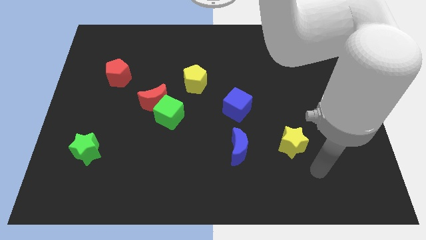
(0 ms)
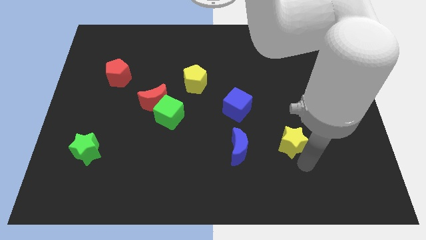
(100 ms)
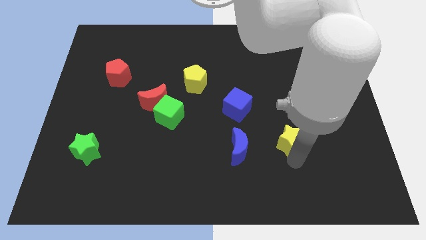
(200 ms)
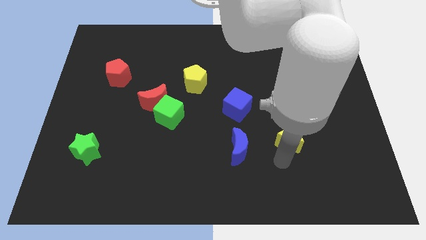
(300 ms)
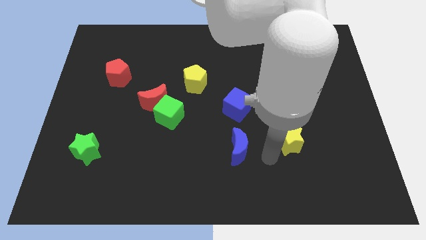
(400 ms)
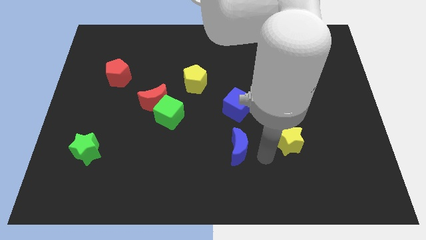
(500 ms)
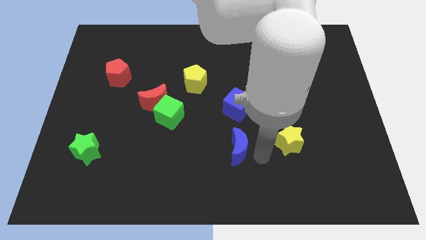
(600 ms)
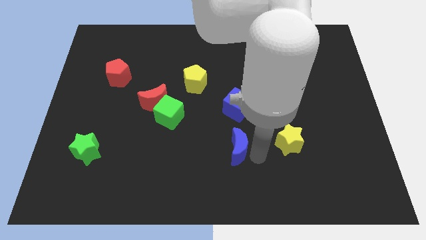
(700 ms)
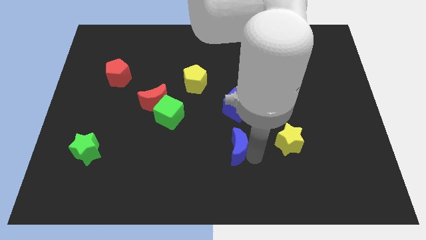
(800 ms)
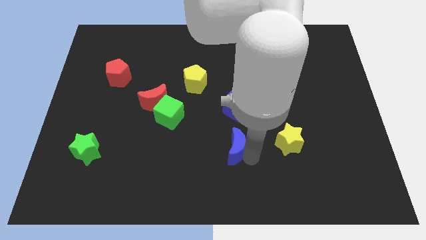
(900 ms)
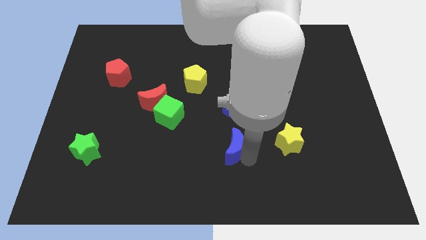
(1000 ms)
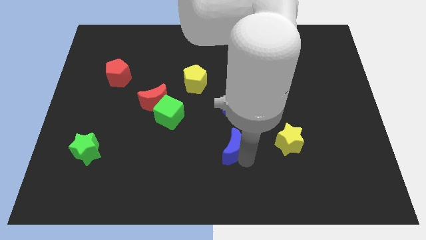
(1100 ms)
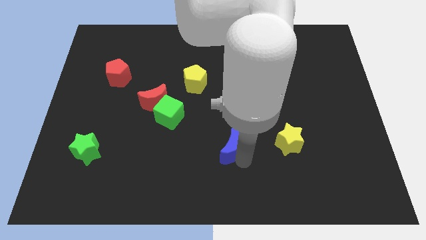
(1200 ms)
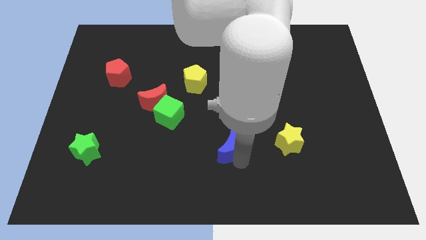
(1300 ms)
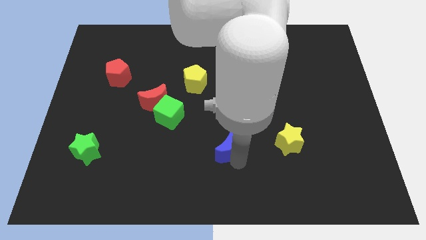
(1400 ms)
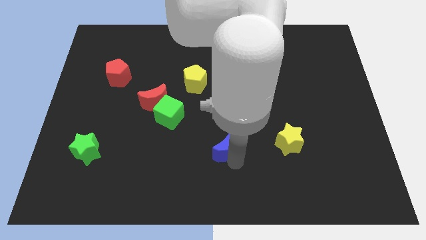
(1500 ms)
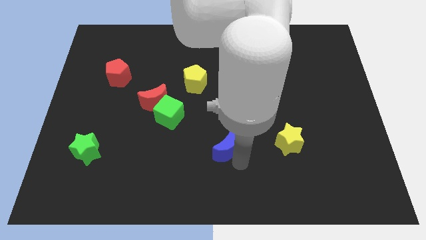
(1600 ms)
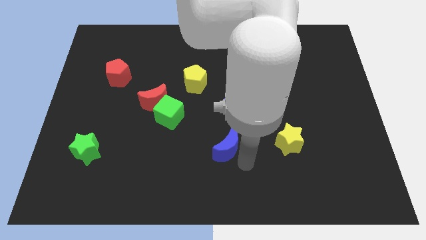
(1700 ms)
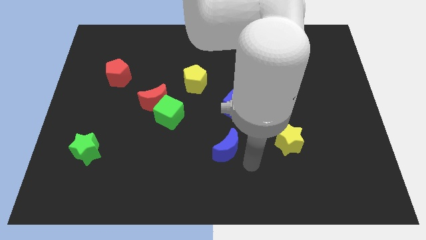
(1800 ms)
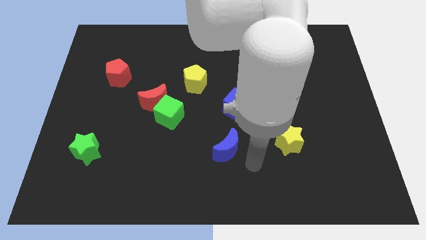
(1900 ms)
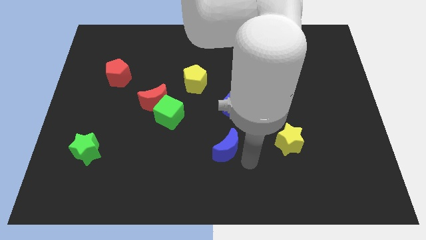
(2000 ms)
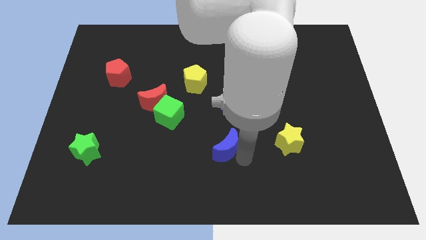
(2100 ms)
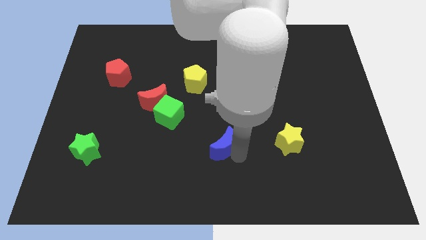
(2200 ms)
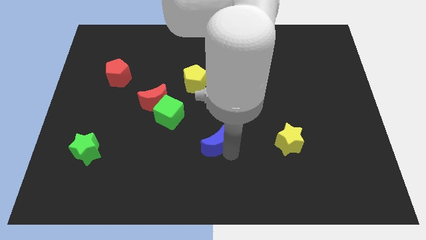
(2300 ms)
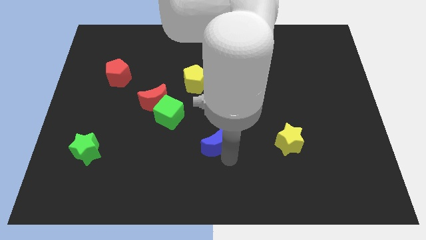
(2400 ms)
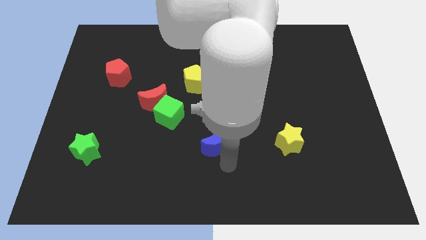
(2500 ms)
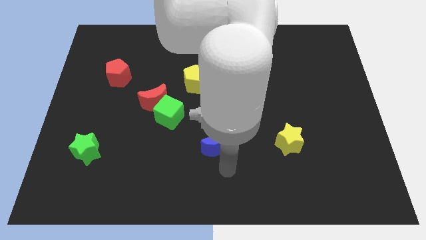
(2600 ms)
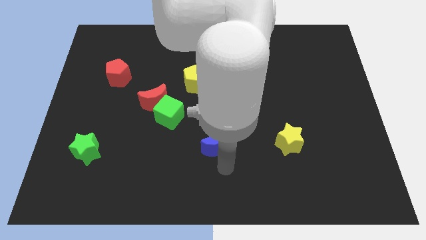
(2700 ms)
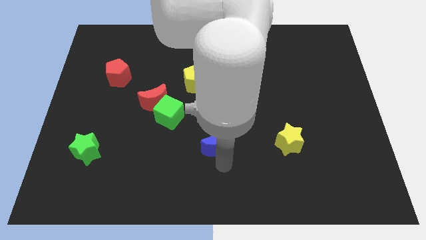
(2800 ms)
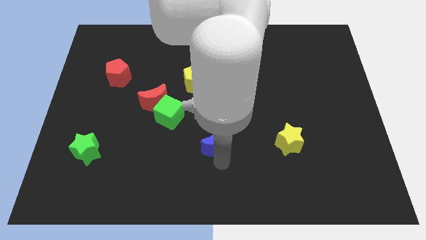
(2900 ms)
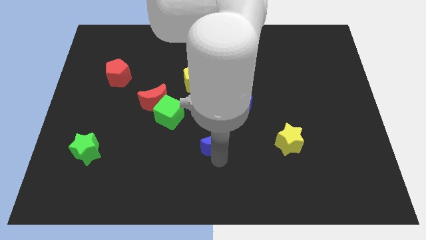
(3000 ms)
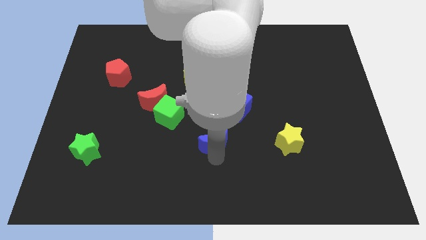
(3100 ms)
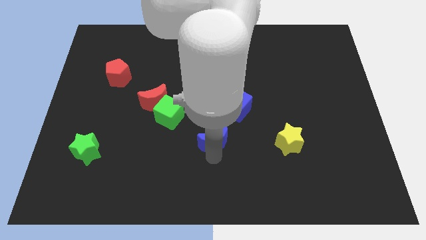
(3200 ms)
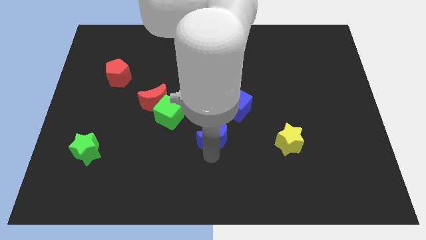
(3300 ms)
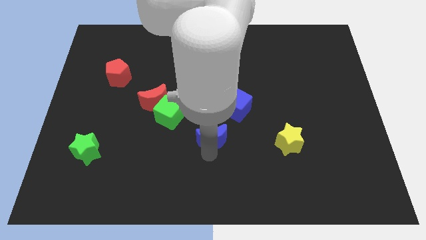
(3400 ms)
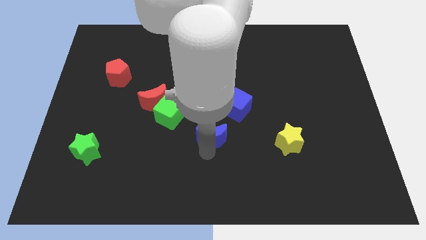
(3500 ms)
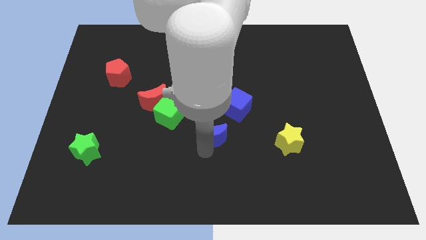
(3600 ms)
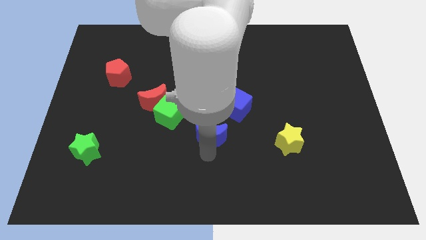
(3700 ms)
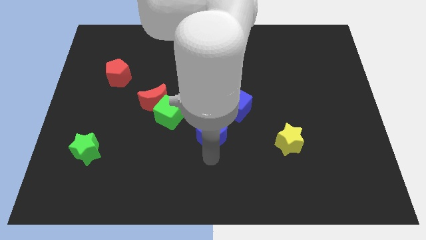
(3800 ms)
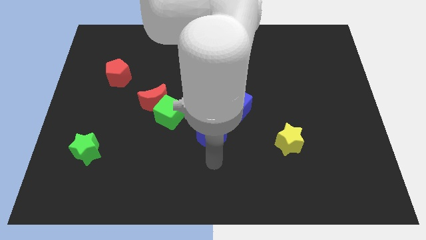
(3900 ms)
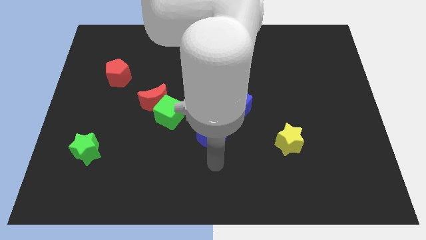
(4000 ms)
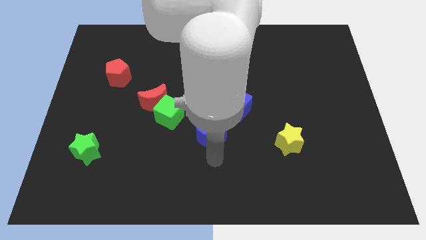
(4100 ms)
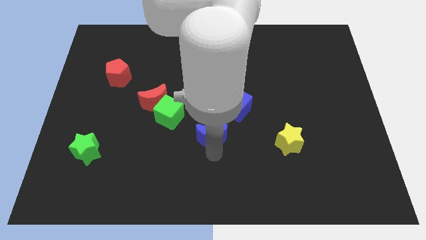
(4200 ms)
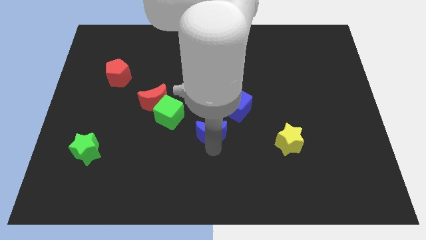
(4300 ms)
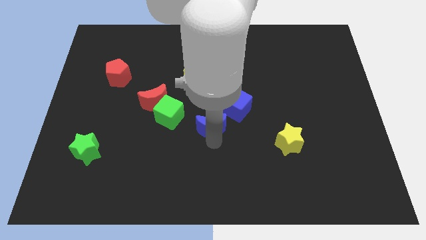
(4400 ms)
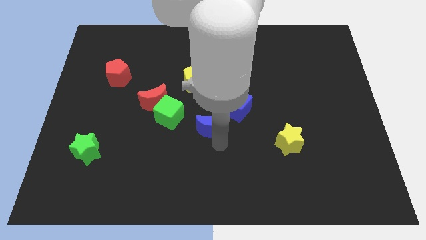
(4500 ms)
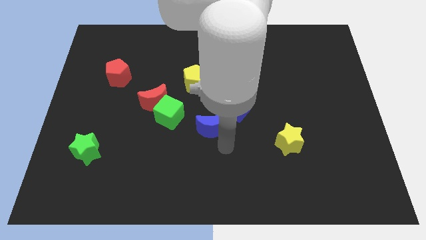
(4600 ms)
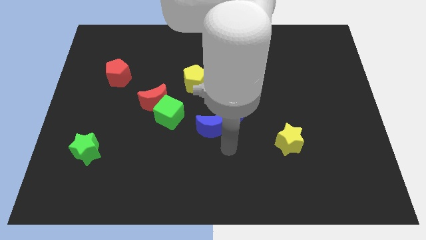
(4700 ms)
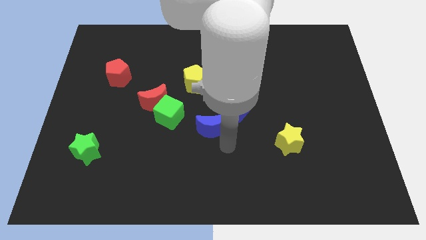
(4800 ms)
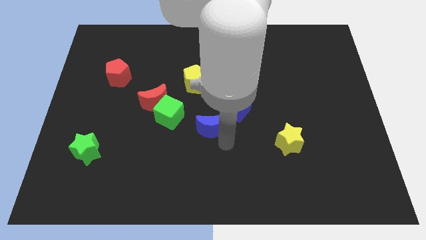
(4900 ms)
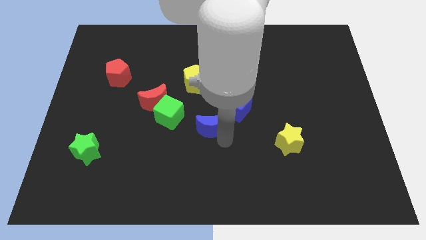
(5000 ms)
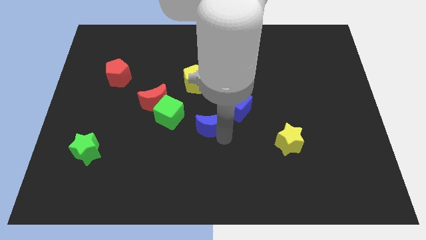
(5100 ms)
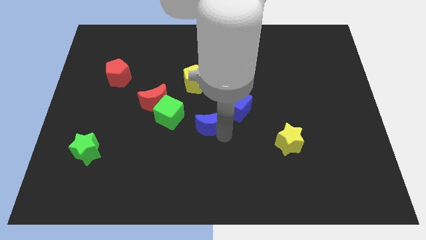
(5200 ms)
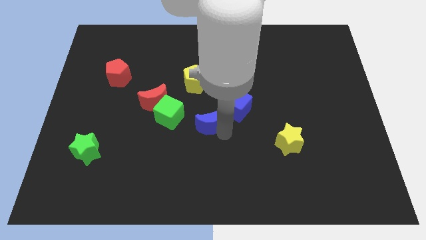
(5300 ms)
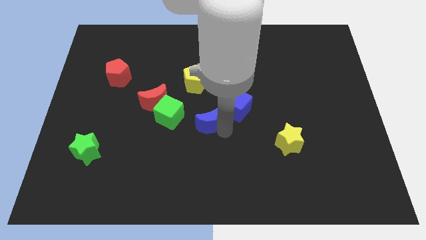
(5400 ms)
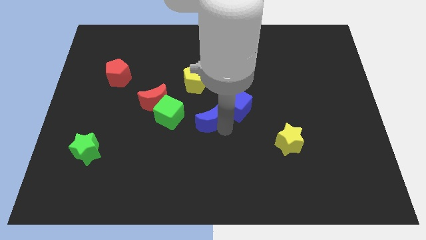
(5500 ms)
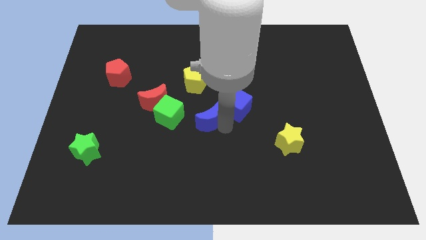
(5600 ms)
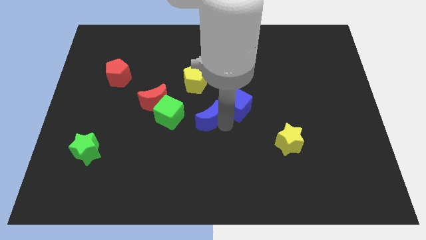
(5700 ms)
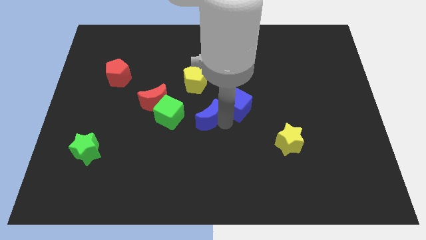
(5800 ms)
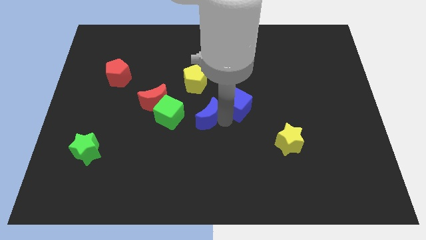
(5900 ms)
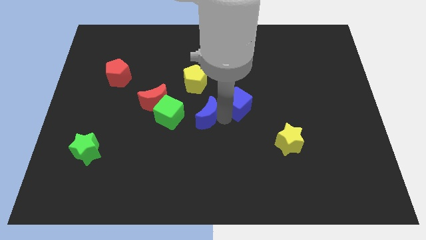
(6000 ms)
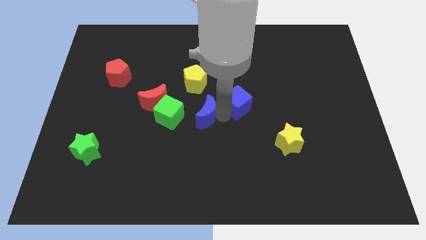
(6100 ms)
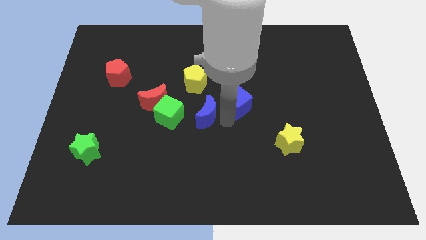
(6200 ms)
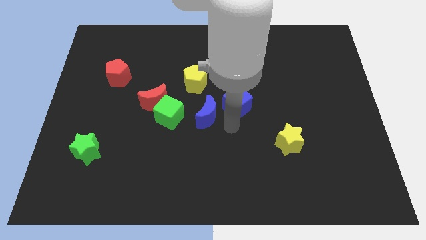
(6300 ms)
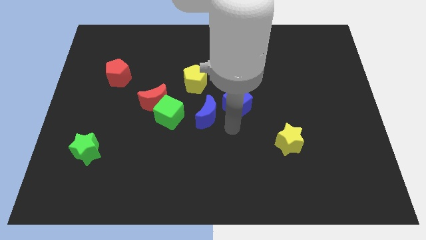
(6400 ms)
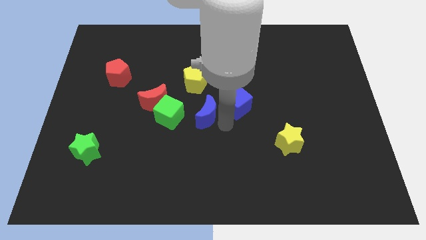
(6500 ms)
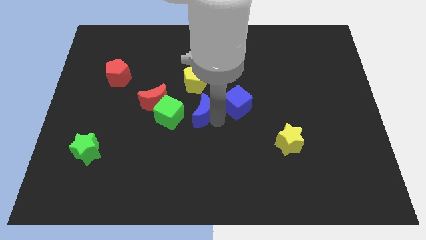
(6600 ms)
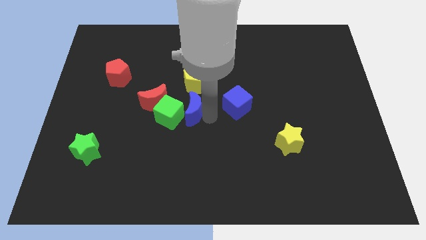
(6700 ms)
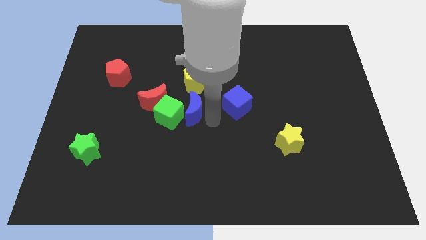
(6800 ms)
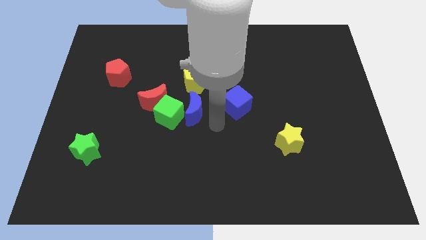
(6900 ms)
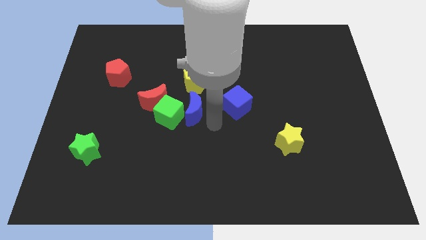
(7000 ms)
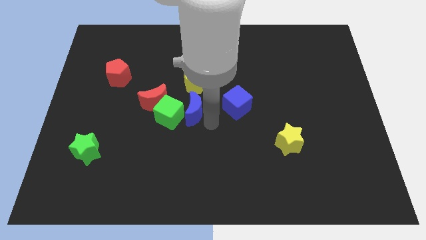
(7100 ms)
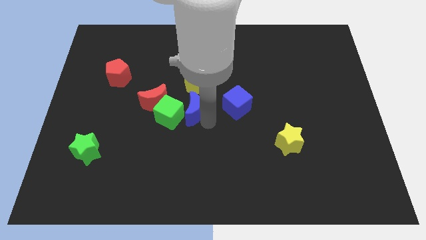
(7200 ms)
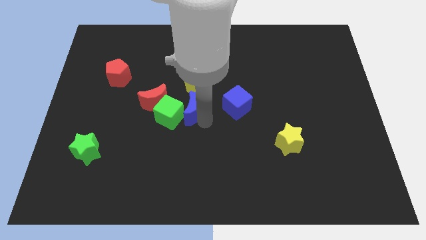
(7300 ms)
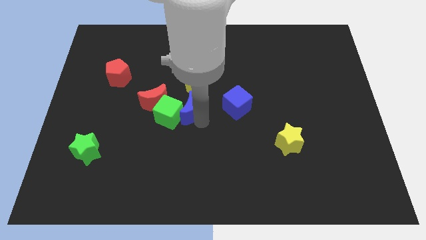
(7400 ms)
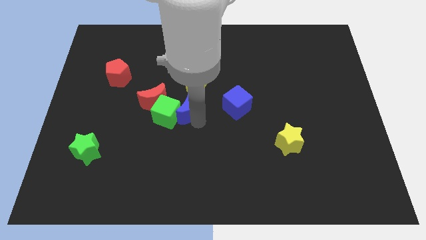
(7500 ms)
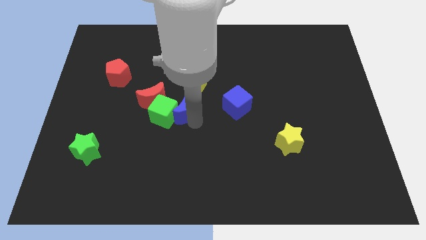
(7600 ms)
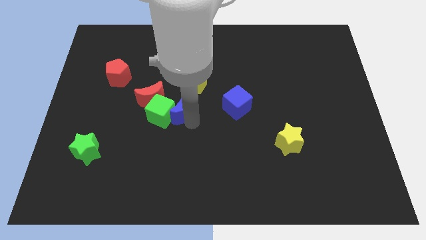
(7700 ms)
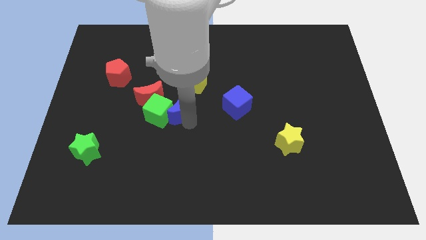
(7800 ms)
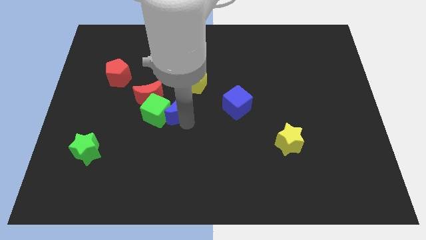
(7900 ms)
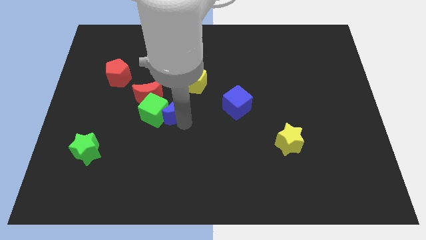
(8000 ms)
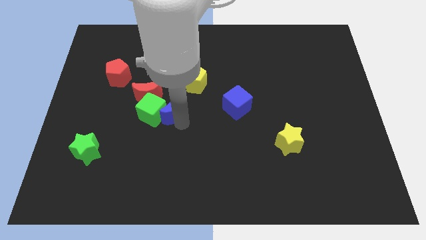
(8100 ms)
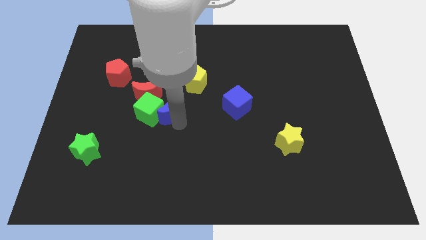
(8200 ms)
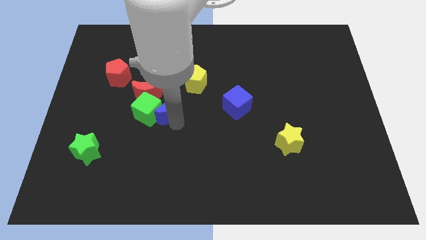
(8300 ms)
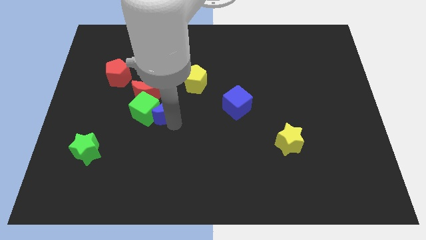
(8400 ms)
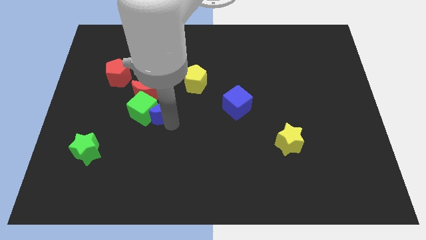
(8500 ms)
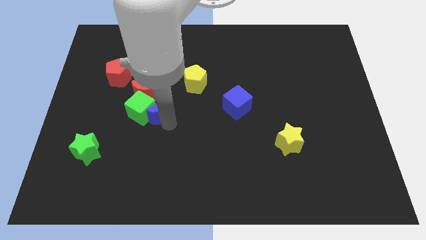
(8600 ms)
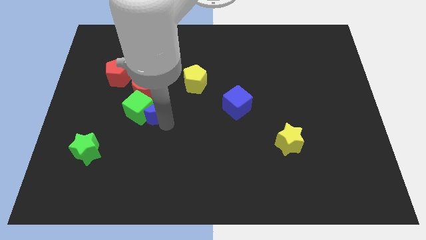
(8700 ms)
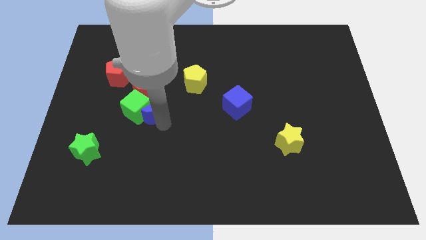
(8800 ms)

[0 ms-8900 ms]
put the blue moon to the red moon
